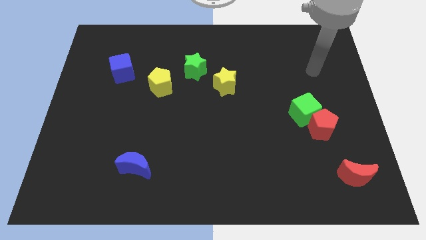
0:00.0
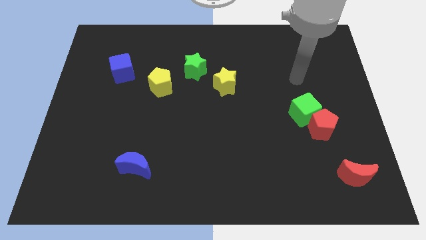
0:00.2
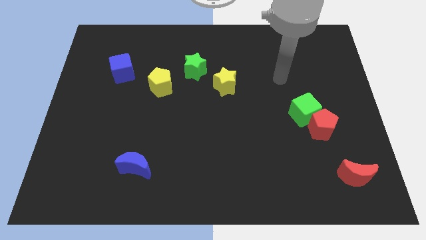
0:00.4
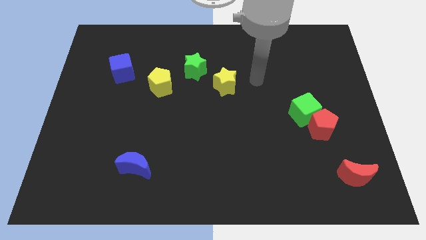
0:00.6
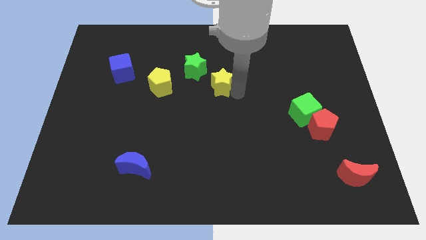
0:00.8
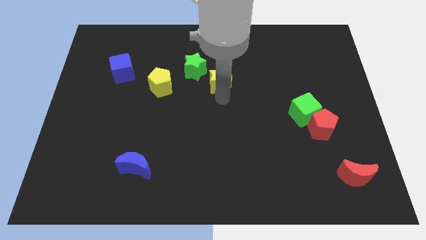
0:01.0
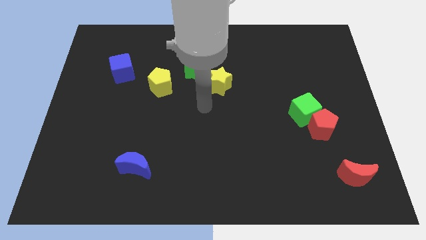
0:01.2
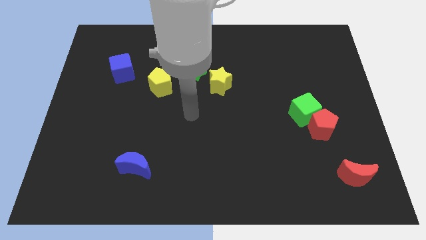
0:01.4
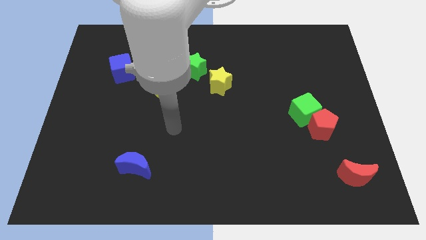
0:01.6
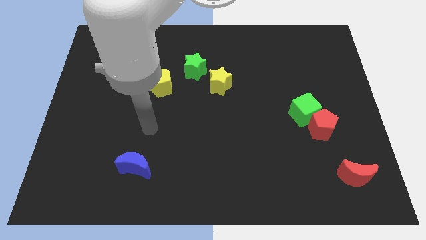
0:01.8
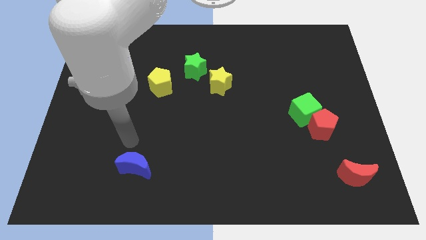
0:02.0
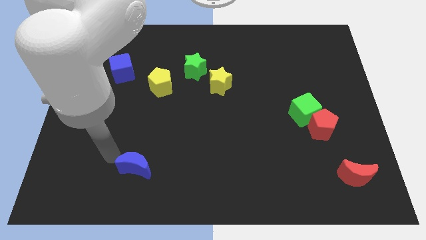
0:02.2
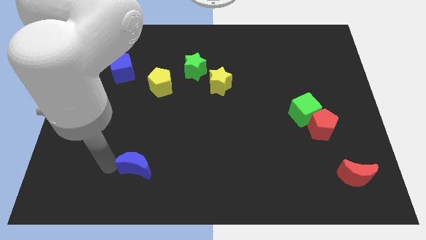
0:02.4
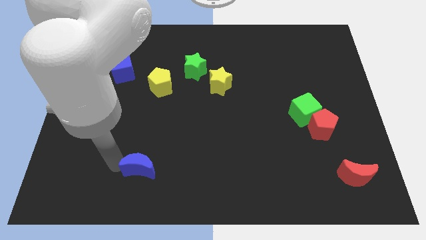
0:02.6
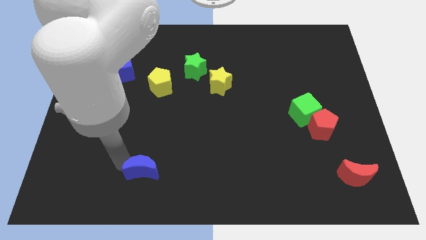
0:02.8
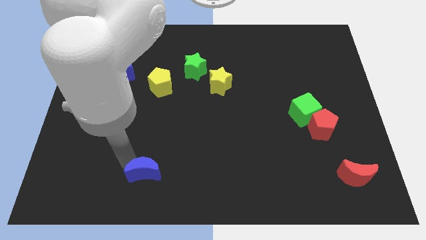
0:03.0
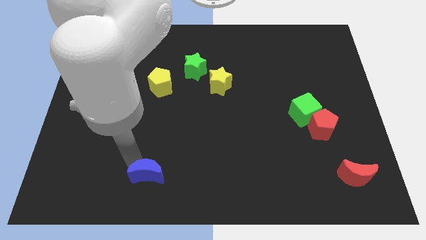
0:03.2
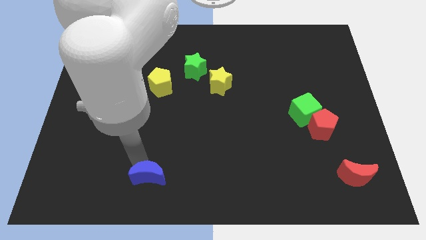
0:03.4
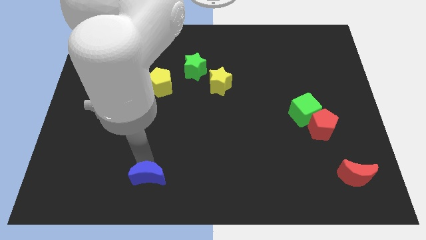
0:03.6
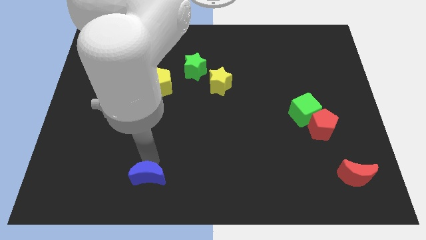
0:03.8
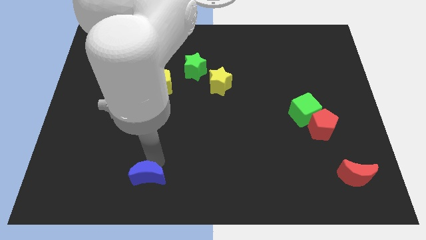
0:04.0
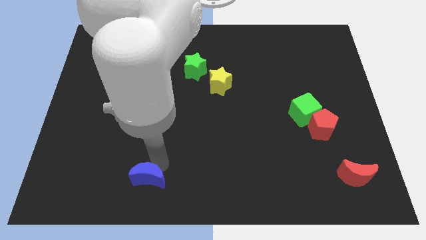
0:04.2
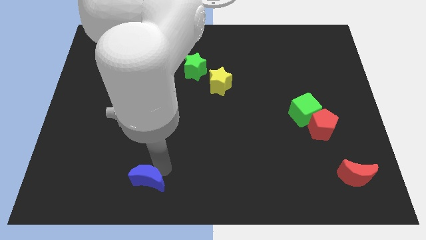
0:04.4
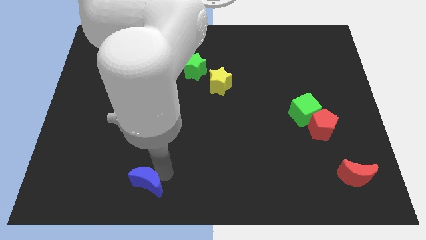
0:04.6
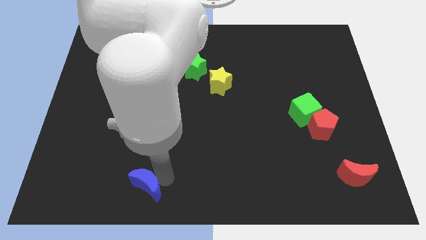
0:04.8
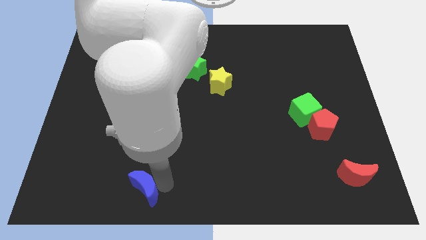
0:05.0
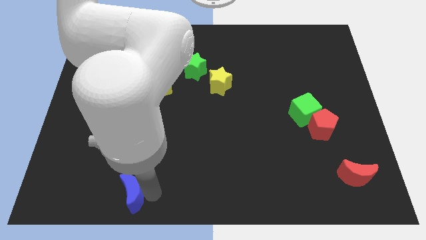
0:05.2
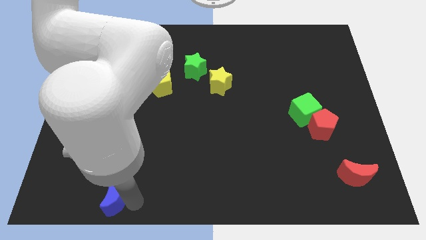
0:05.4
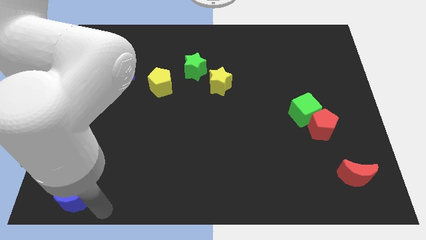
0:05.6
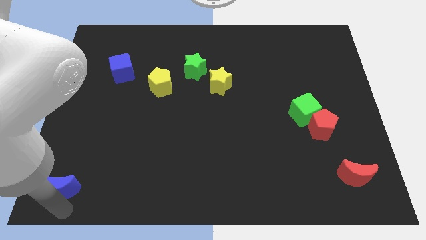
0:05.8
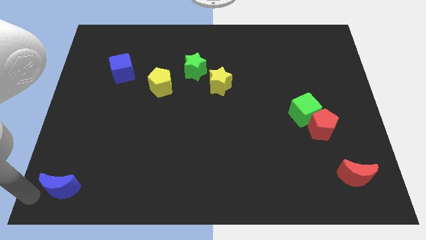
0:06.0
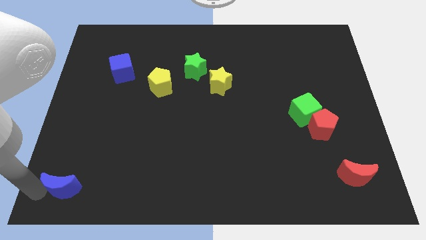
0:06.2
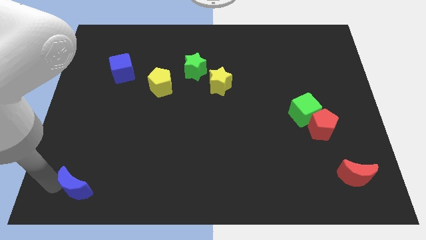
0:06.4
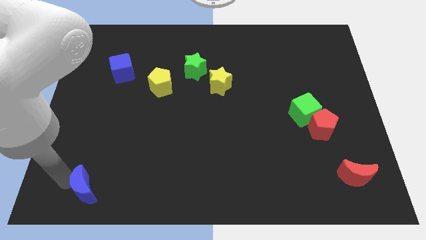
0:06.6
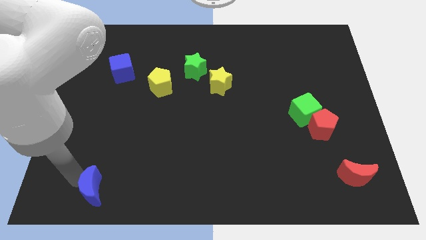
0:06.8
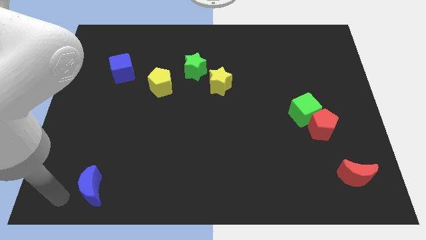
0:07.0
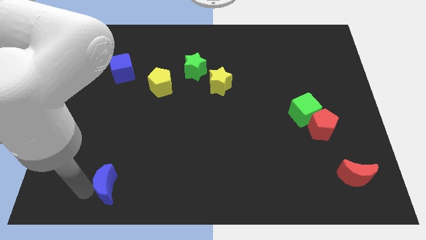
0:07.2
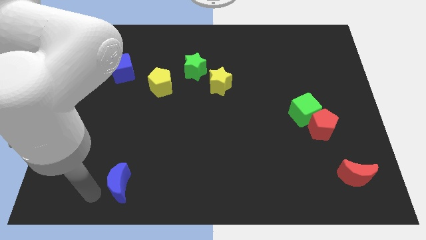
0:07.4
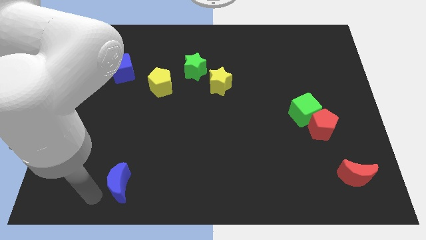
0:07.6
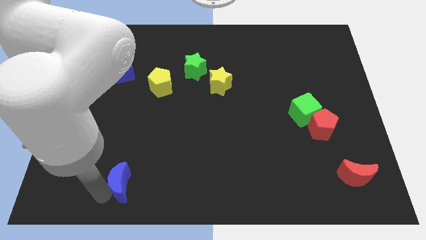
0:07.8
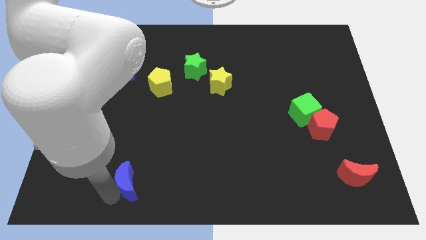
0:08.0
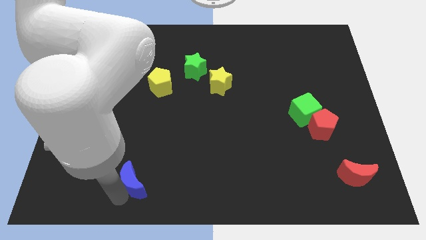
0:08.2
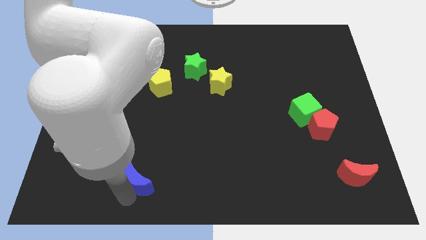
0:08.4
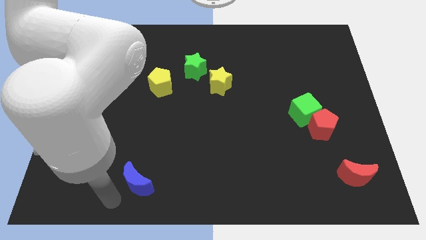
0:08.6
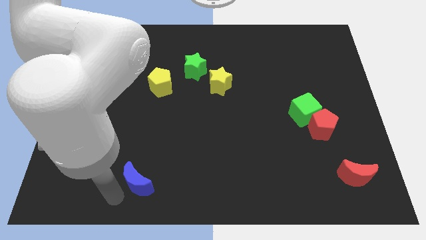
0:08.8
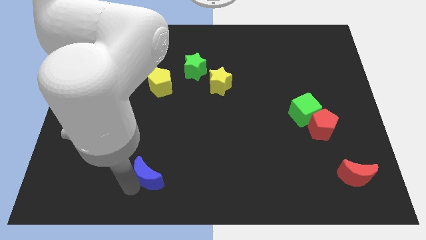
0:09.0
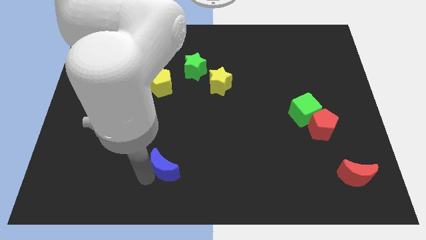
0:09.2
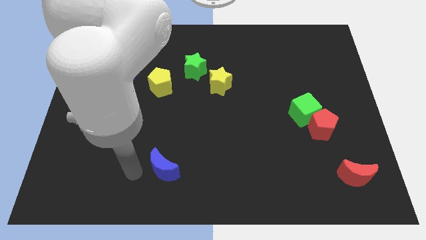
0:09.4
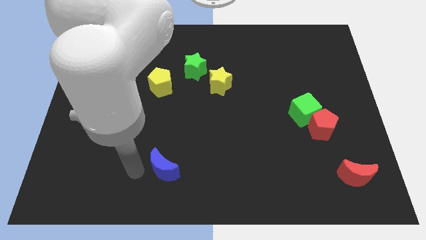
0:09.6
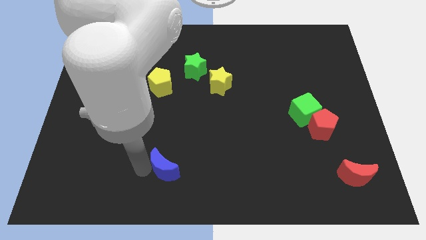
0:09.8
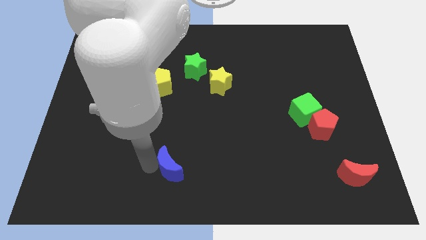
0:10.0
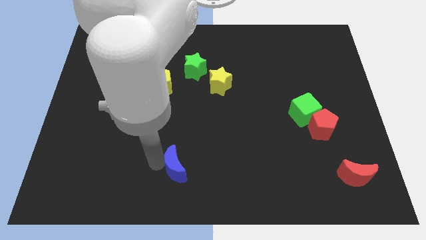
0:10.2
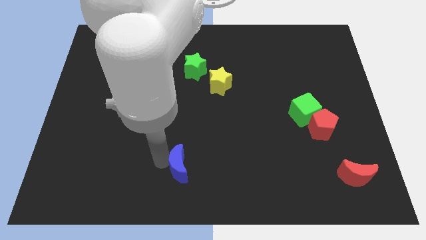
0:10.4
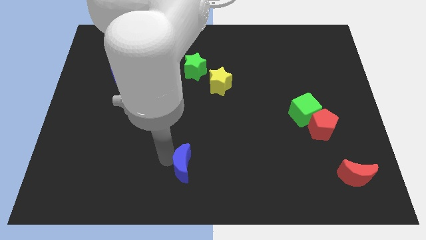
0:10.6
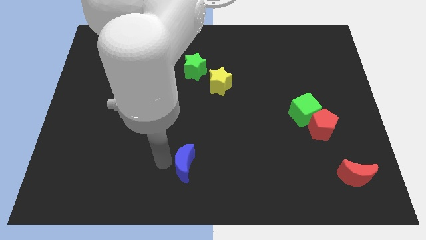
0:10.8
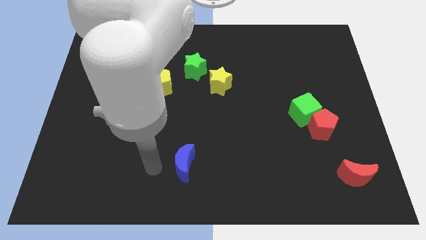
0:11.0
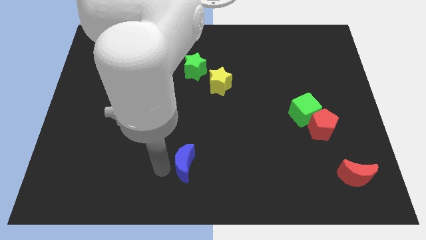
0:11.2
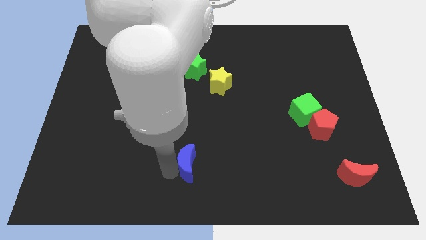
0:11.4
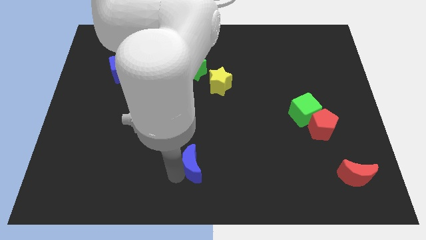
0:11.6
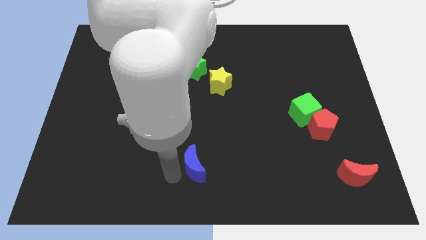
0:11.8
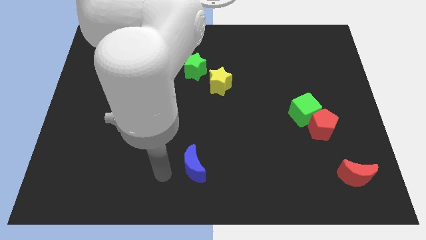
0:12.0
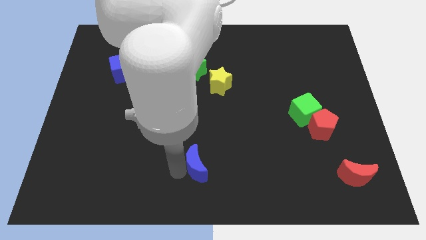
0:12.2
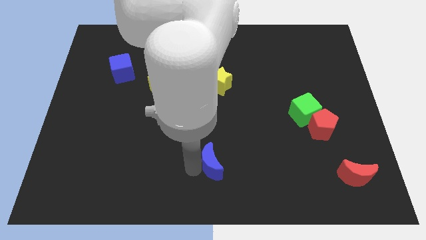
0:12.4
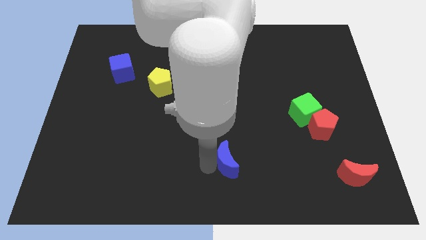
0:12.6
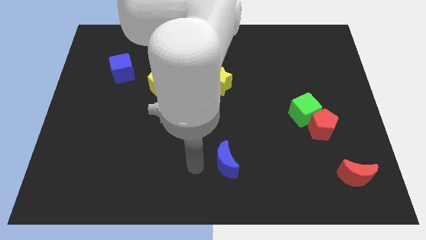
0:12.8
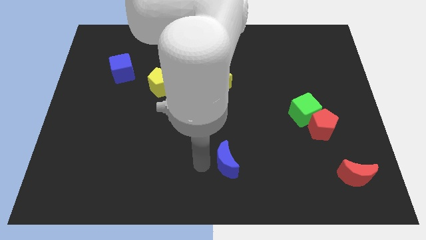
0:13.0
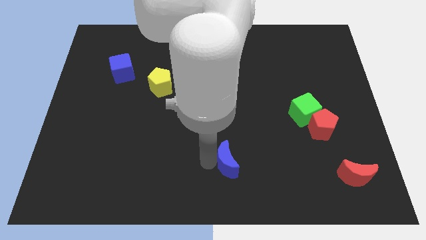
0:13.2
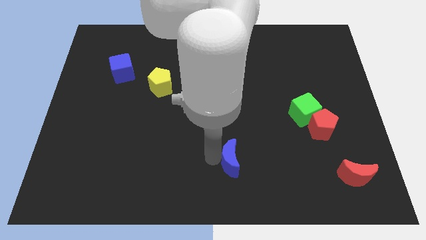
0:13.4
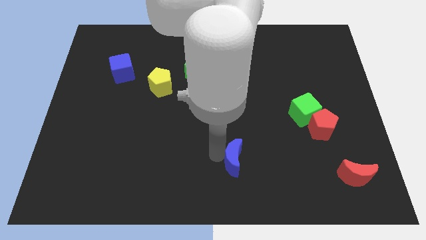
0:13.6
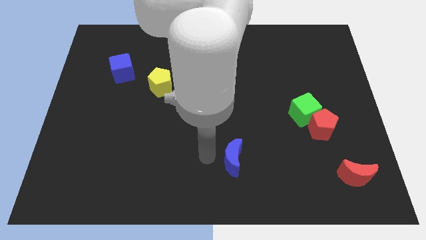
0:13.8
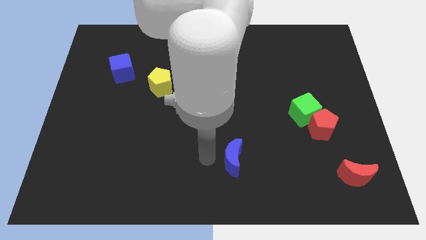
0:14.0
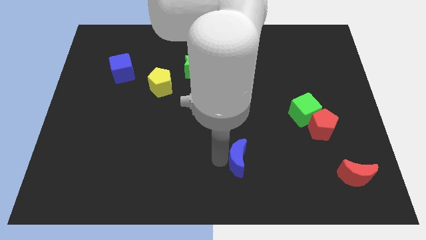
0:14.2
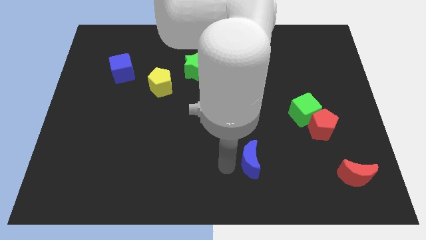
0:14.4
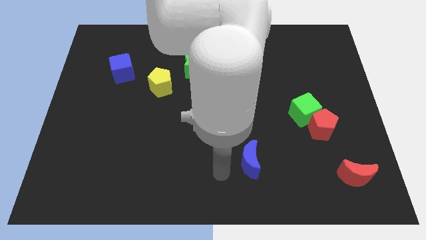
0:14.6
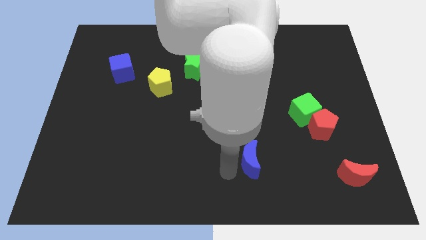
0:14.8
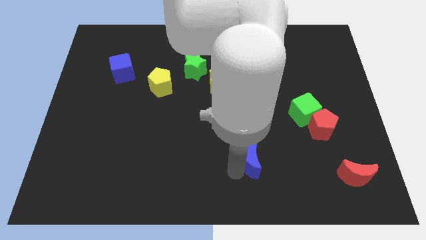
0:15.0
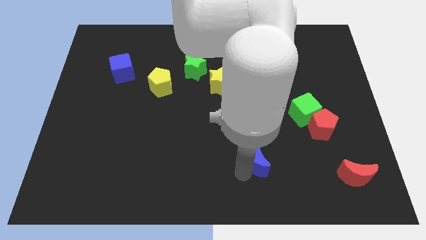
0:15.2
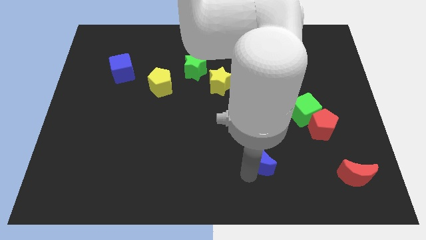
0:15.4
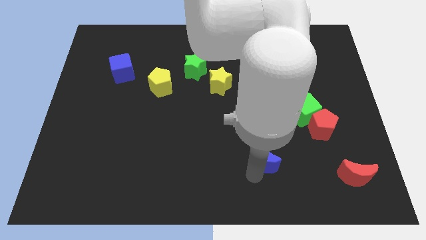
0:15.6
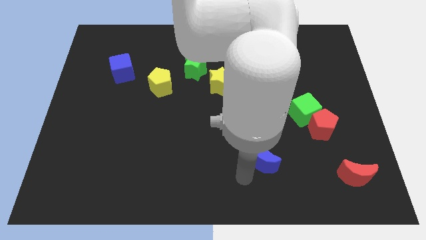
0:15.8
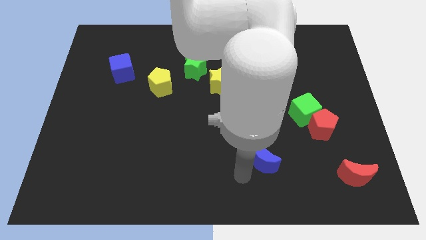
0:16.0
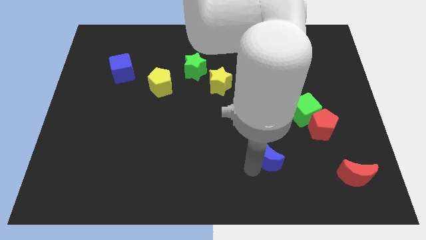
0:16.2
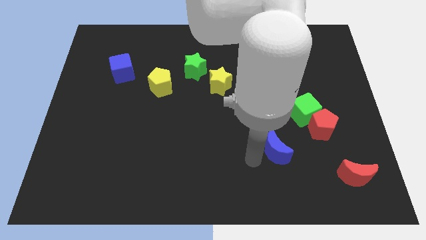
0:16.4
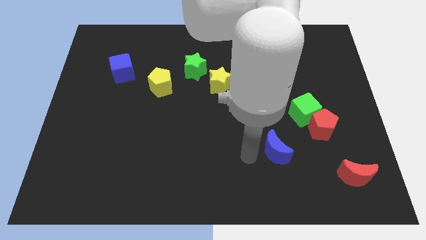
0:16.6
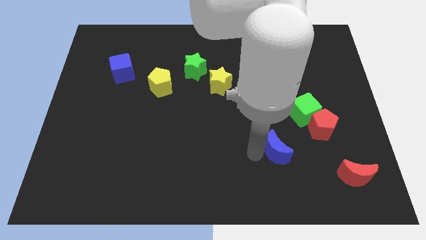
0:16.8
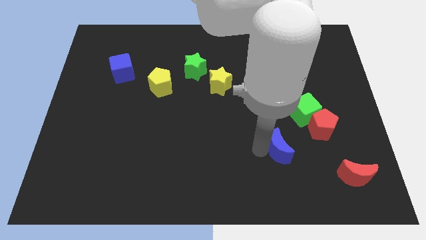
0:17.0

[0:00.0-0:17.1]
put the blue moon diagonally down and to the left of the red pentagon
